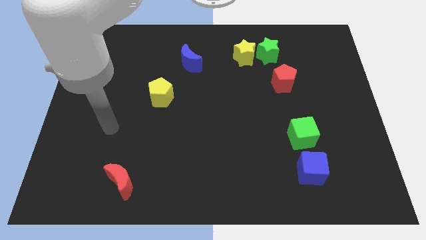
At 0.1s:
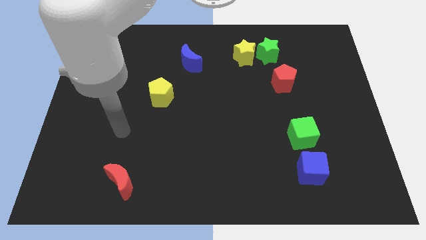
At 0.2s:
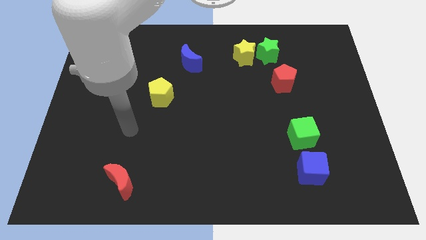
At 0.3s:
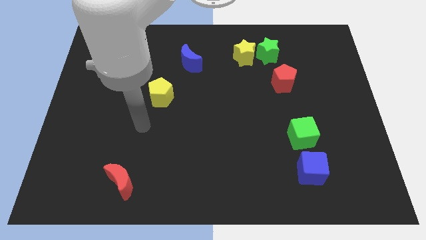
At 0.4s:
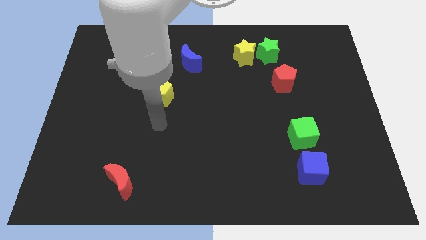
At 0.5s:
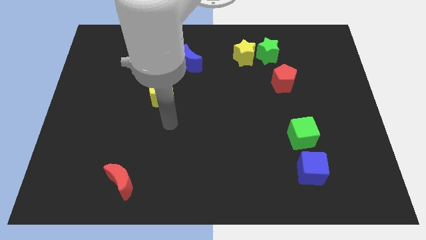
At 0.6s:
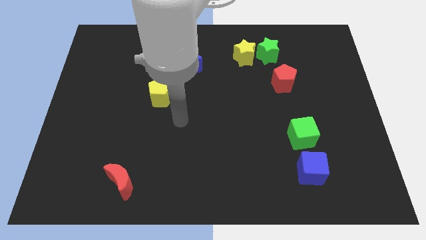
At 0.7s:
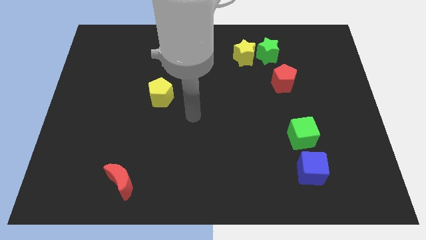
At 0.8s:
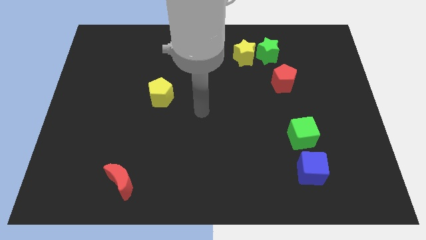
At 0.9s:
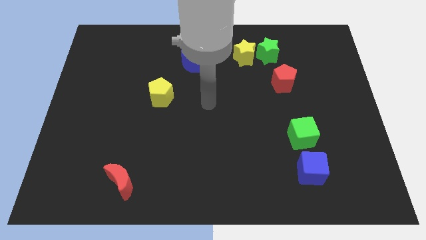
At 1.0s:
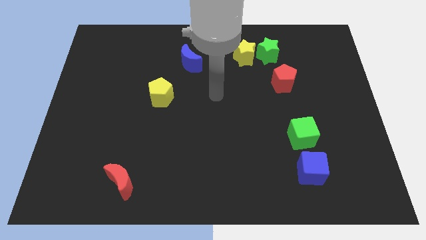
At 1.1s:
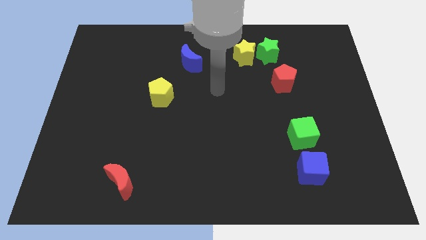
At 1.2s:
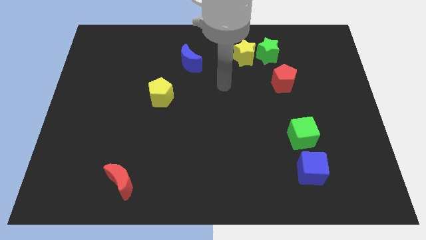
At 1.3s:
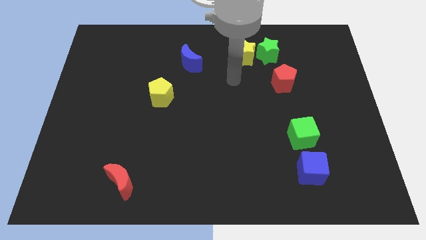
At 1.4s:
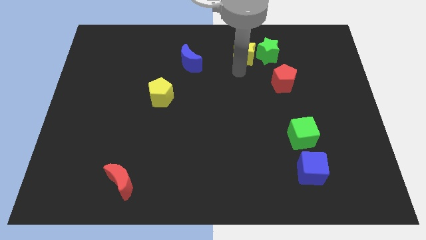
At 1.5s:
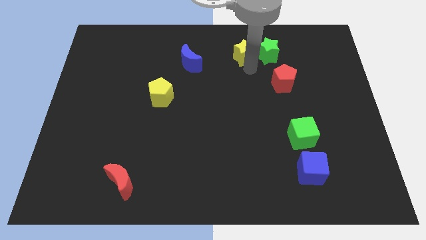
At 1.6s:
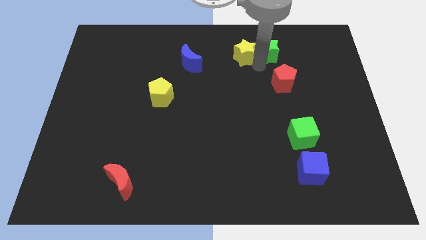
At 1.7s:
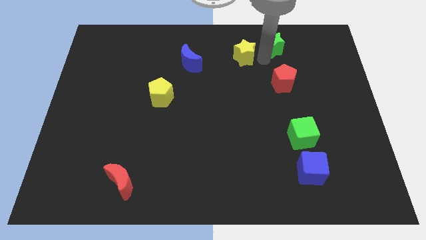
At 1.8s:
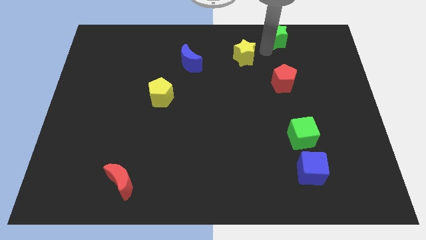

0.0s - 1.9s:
move the yellow star away from the green star

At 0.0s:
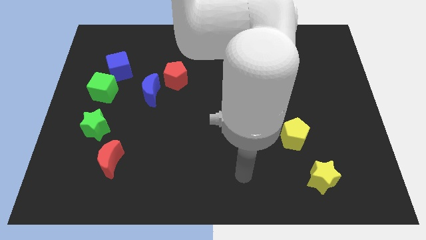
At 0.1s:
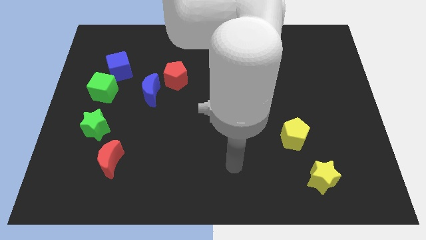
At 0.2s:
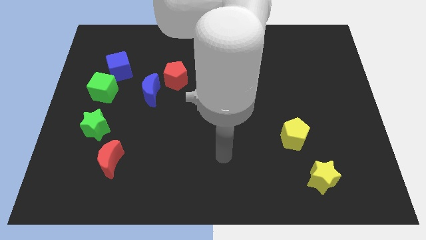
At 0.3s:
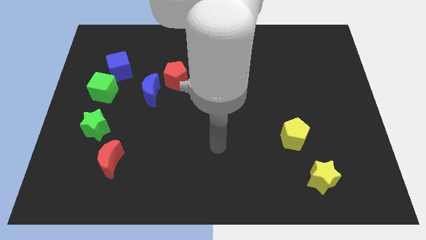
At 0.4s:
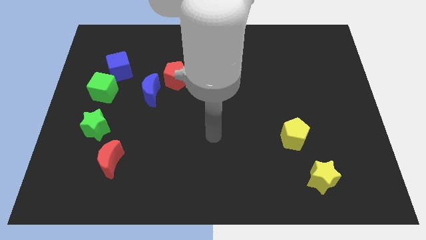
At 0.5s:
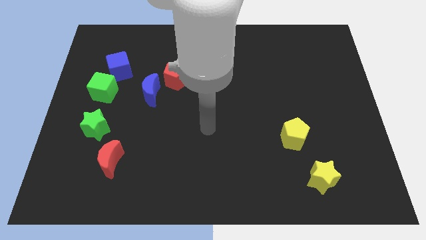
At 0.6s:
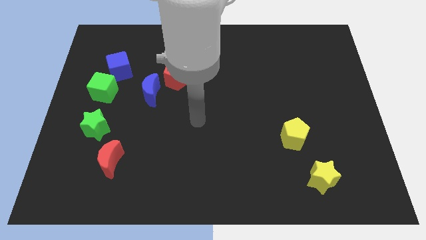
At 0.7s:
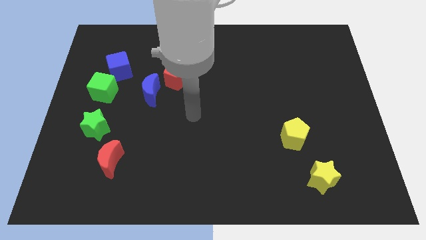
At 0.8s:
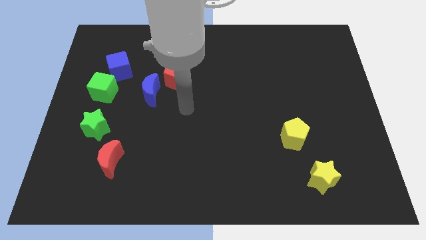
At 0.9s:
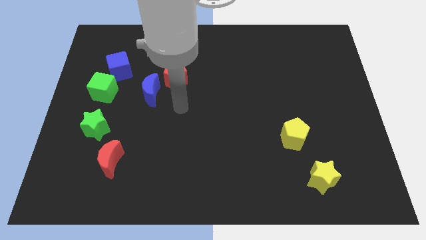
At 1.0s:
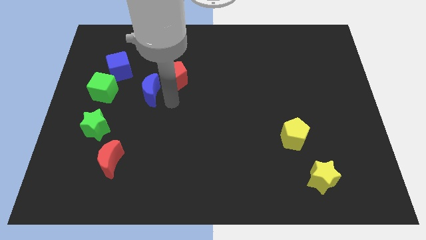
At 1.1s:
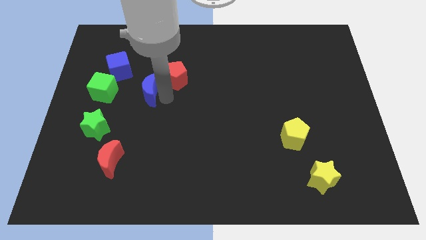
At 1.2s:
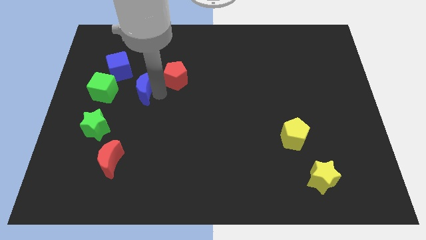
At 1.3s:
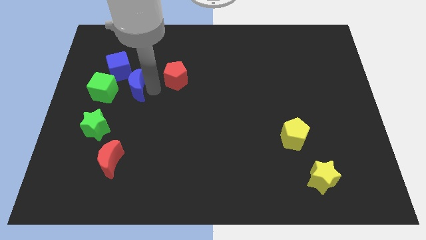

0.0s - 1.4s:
separate the red pentagon from the blue moon

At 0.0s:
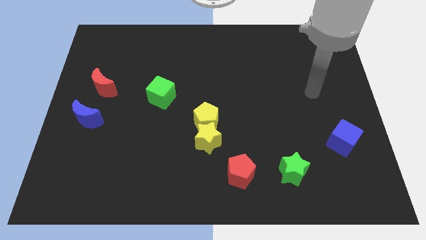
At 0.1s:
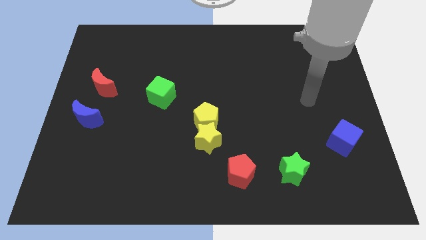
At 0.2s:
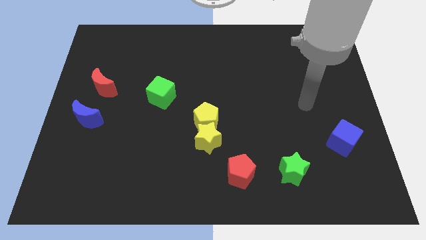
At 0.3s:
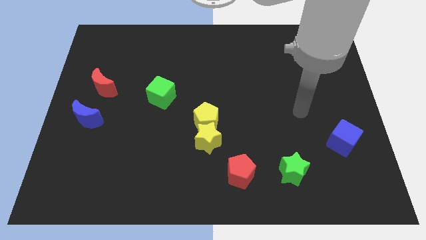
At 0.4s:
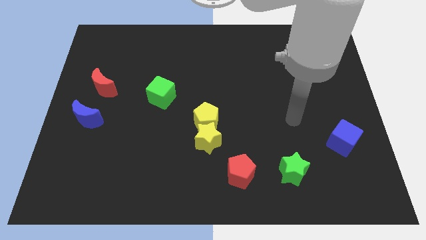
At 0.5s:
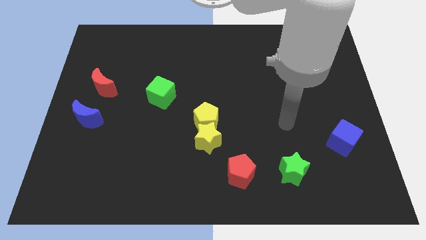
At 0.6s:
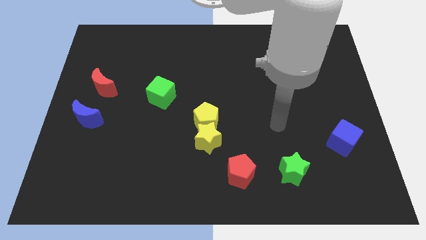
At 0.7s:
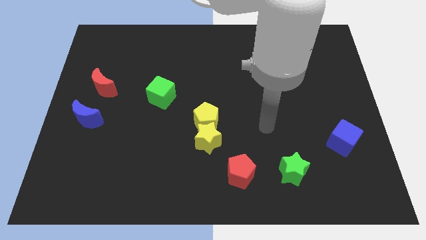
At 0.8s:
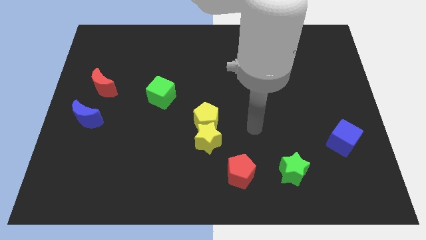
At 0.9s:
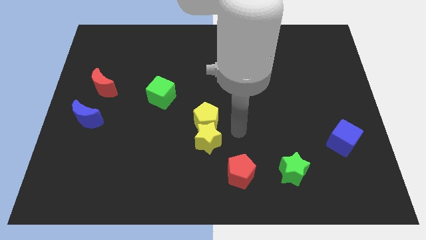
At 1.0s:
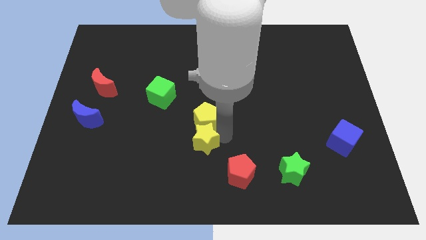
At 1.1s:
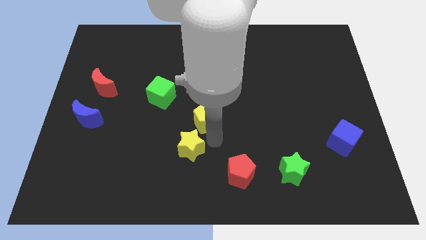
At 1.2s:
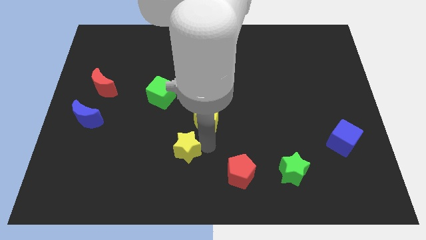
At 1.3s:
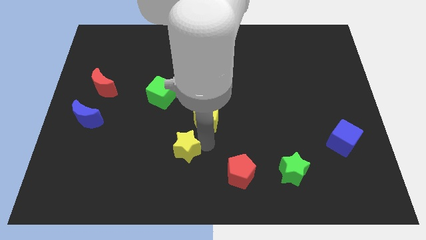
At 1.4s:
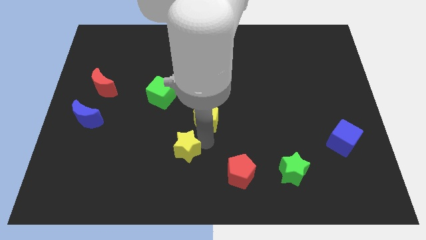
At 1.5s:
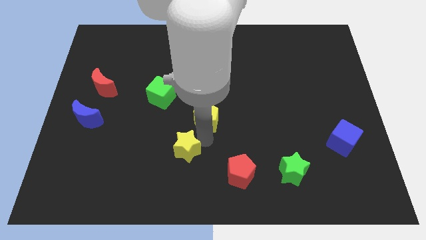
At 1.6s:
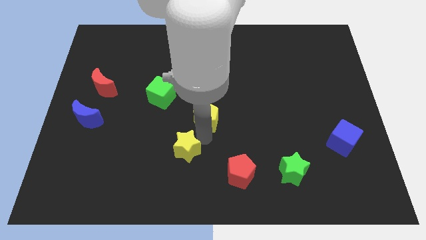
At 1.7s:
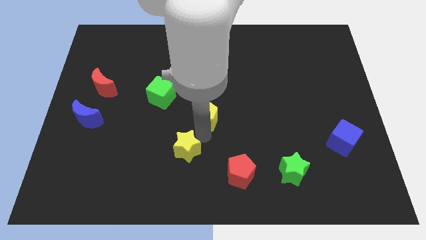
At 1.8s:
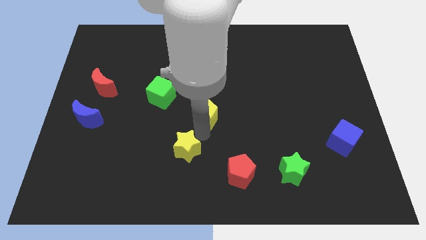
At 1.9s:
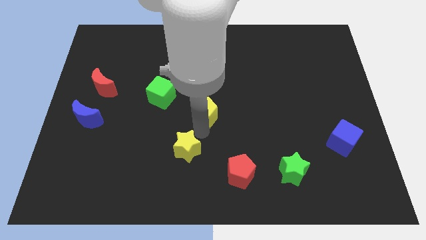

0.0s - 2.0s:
move the yellow pentagon away from the yellow star

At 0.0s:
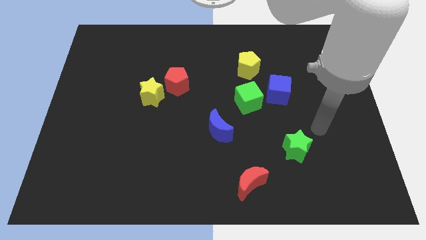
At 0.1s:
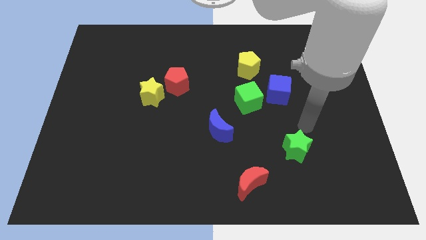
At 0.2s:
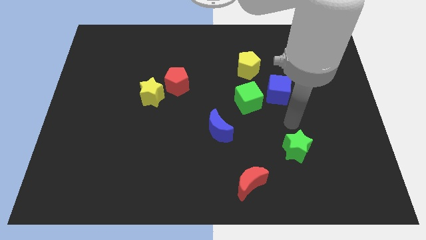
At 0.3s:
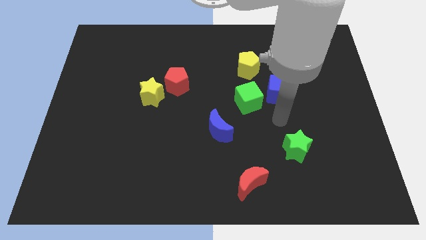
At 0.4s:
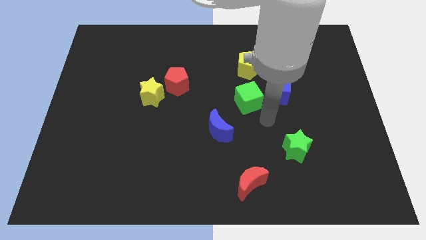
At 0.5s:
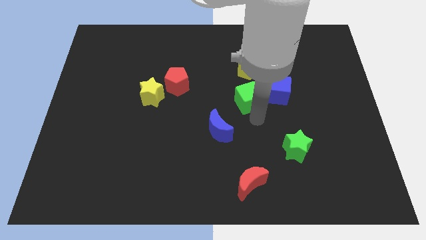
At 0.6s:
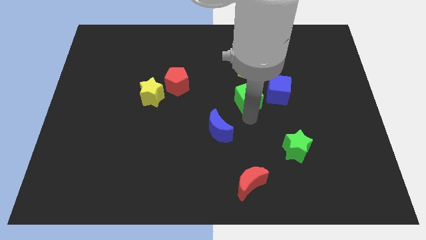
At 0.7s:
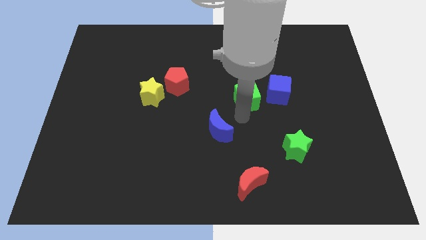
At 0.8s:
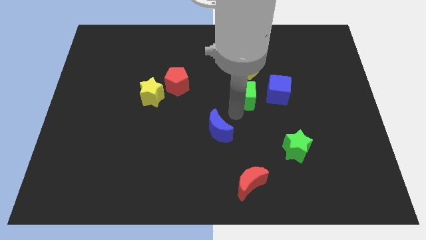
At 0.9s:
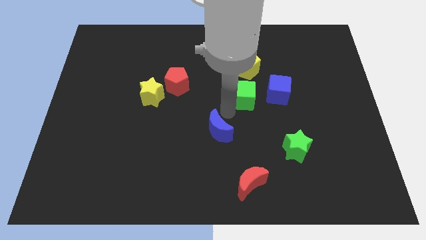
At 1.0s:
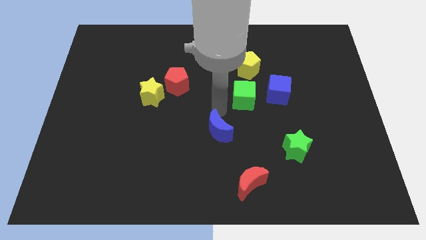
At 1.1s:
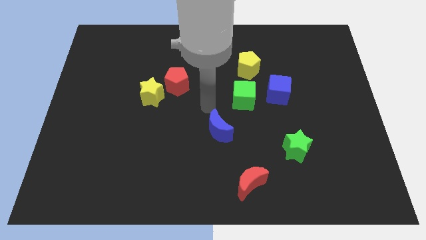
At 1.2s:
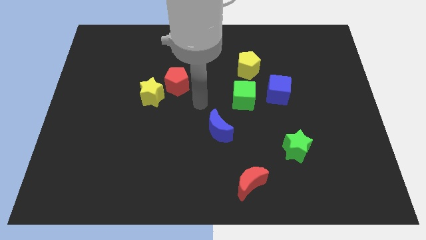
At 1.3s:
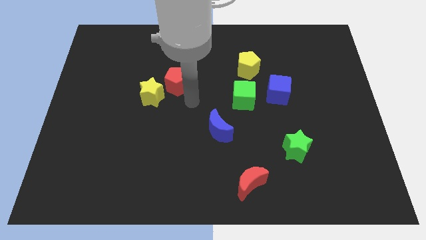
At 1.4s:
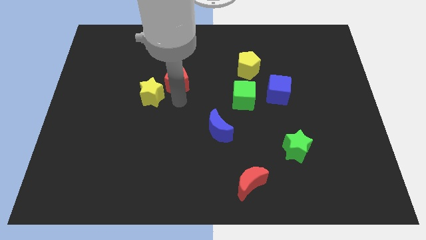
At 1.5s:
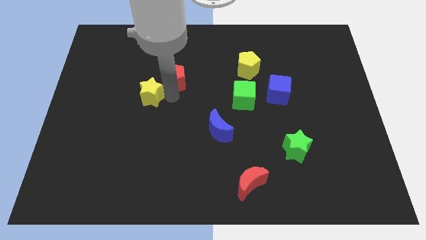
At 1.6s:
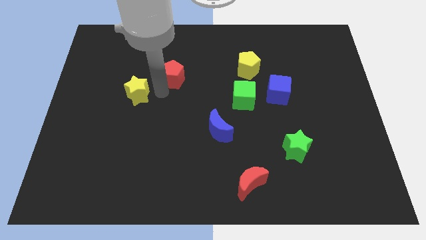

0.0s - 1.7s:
separate the red pentagon from the yellow star

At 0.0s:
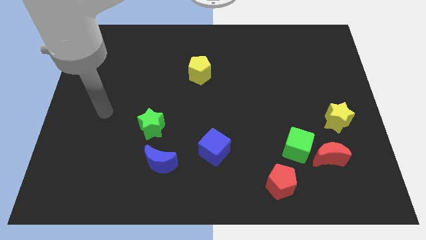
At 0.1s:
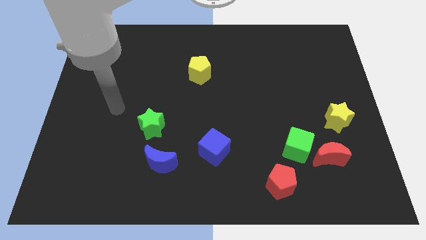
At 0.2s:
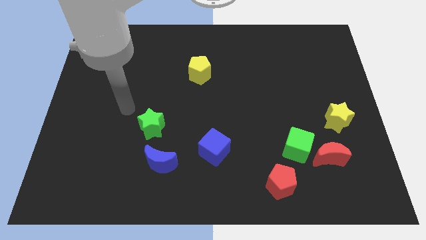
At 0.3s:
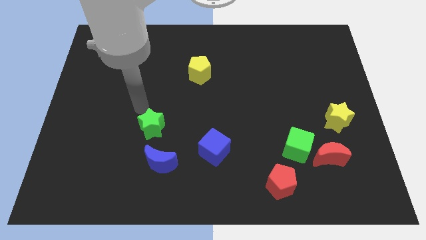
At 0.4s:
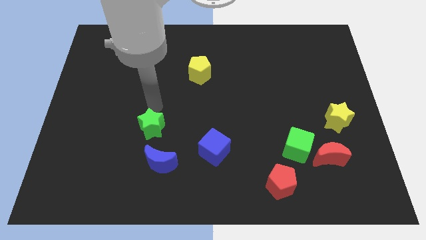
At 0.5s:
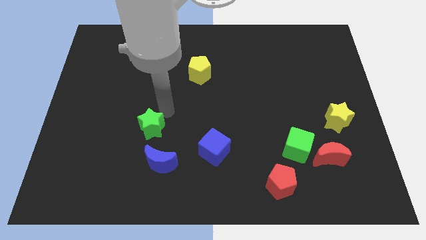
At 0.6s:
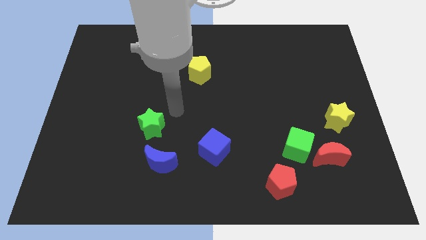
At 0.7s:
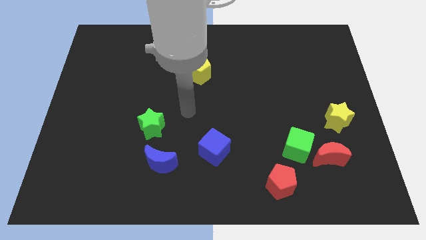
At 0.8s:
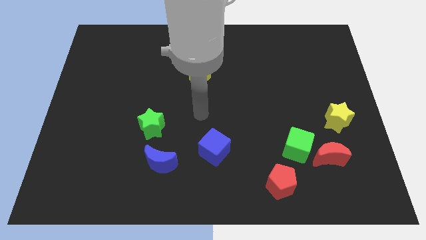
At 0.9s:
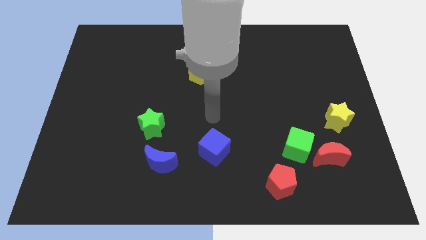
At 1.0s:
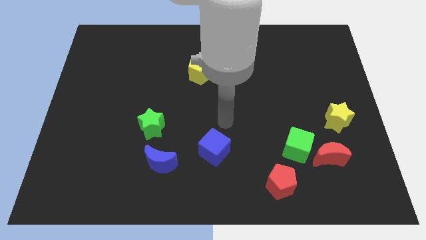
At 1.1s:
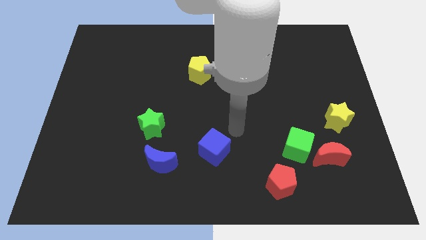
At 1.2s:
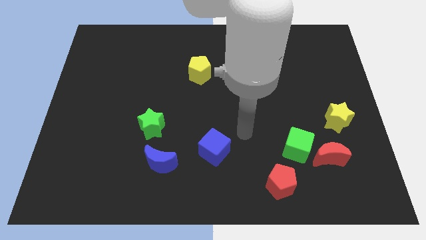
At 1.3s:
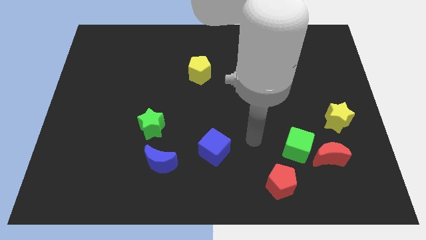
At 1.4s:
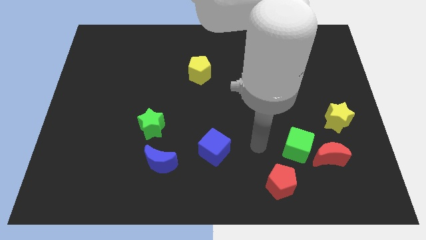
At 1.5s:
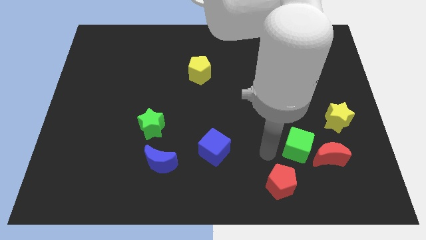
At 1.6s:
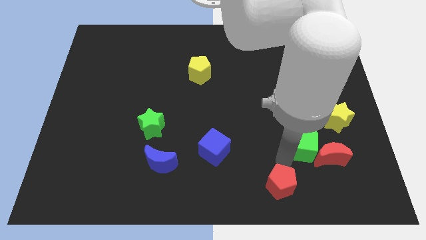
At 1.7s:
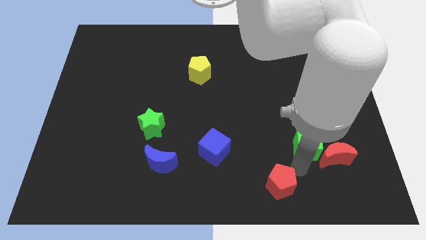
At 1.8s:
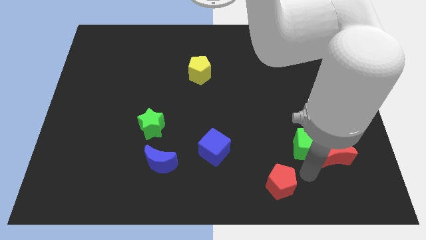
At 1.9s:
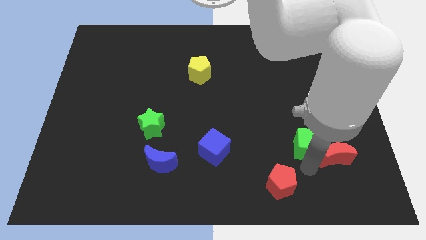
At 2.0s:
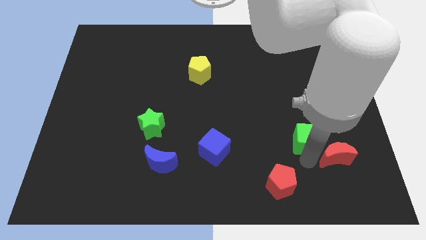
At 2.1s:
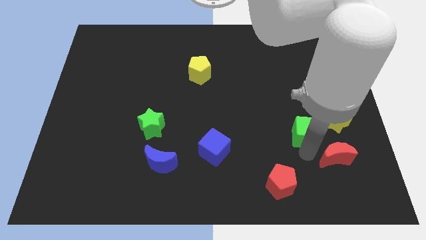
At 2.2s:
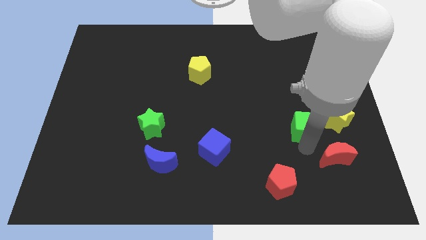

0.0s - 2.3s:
pull the green cube apart from the red moon and red pentagon
